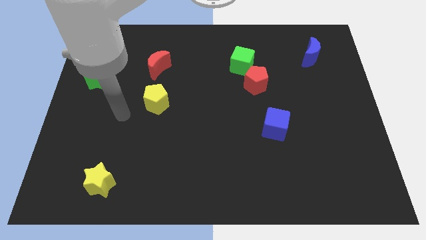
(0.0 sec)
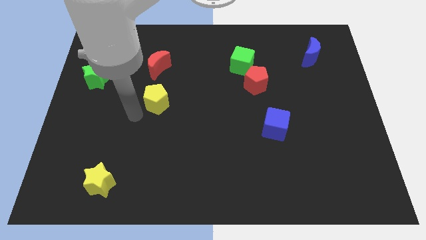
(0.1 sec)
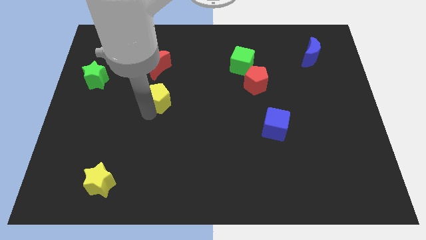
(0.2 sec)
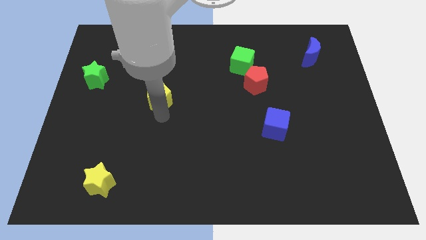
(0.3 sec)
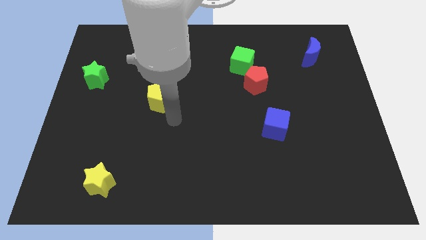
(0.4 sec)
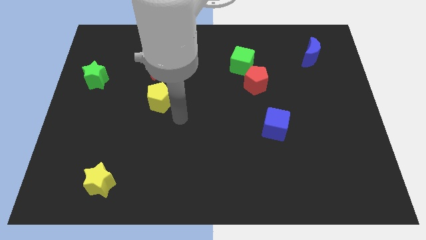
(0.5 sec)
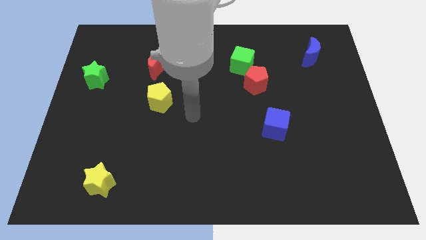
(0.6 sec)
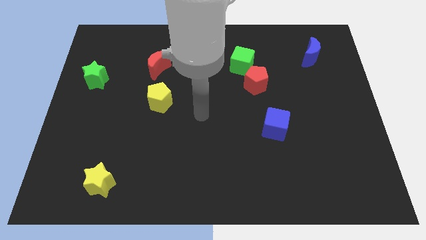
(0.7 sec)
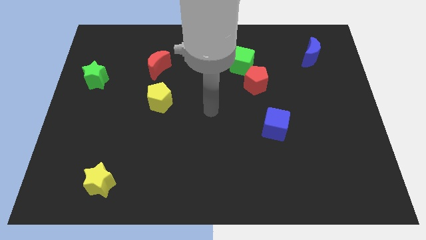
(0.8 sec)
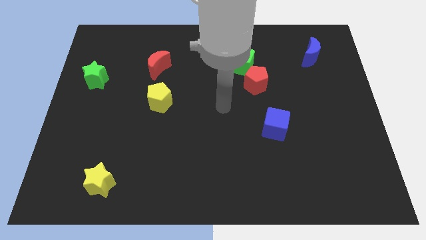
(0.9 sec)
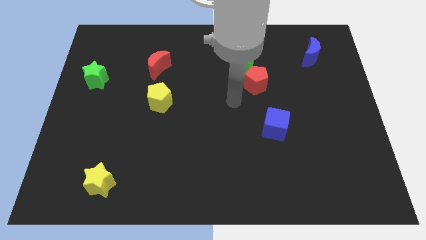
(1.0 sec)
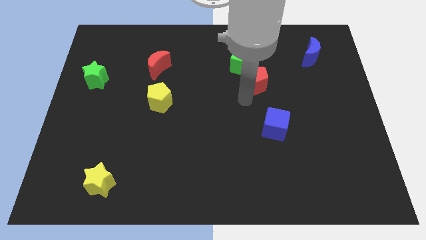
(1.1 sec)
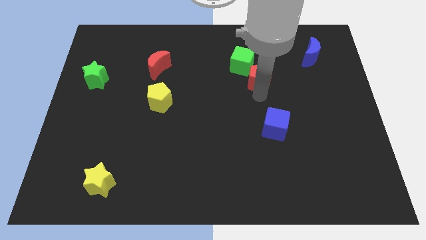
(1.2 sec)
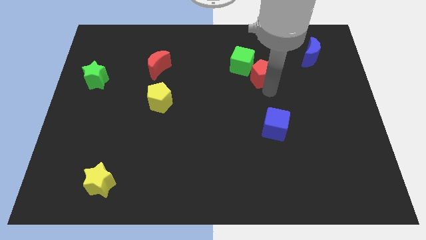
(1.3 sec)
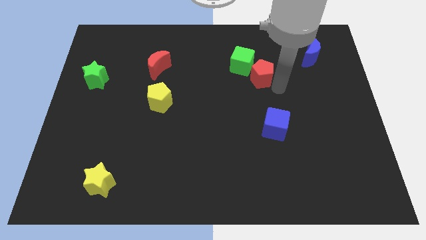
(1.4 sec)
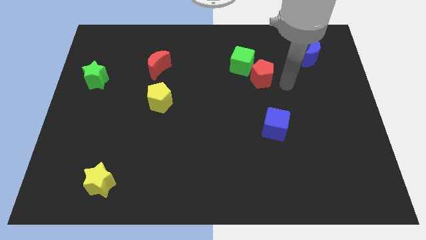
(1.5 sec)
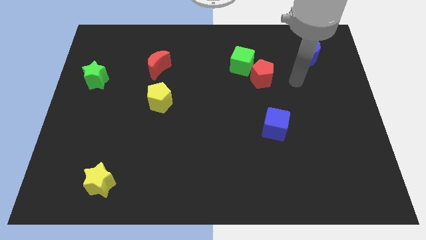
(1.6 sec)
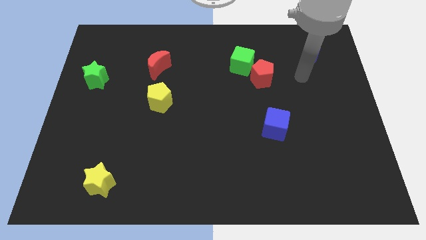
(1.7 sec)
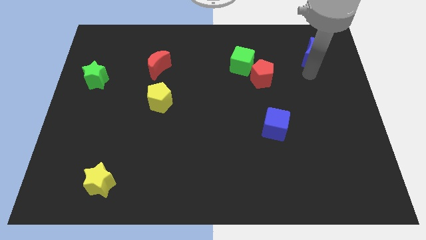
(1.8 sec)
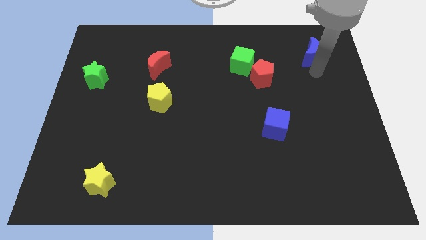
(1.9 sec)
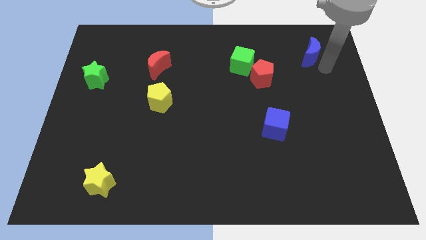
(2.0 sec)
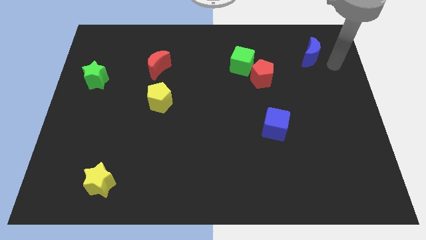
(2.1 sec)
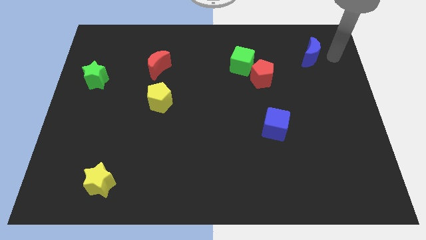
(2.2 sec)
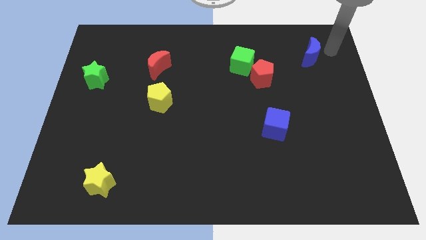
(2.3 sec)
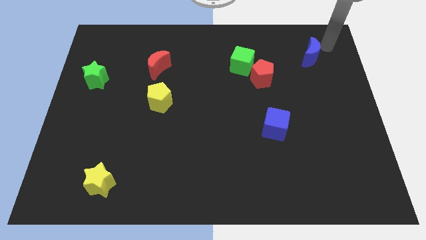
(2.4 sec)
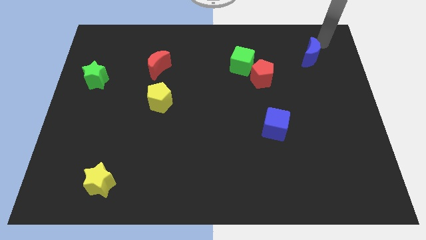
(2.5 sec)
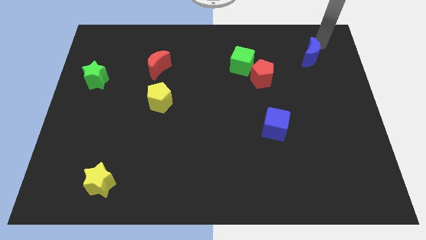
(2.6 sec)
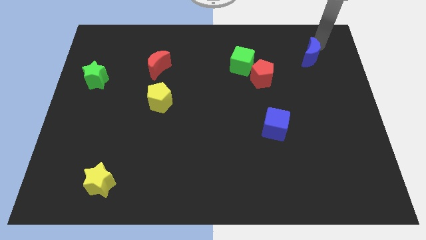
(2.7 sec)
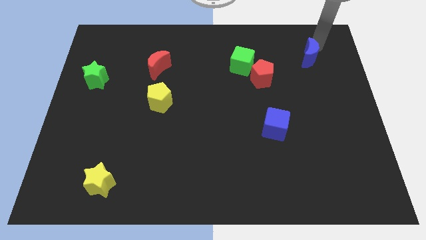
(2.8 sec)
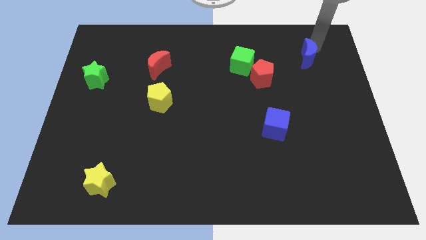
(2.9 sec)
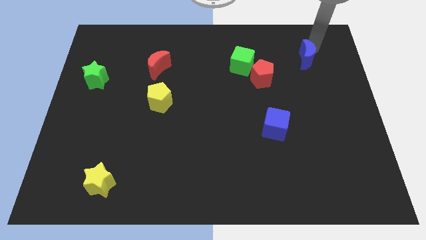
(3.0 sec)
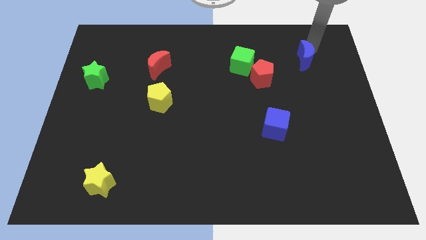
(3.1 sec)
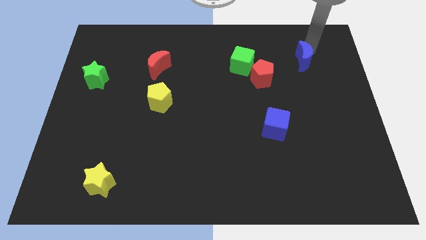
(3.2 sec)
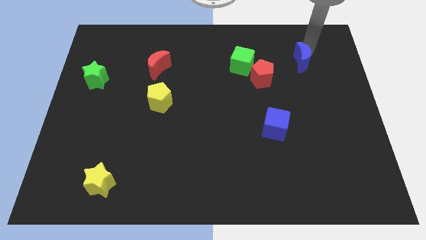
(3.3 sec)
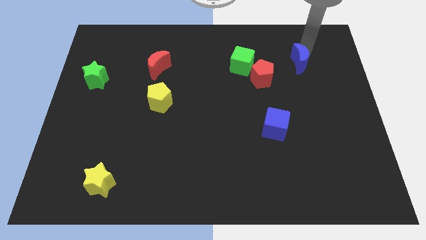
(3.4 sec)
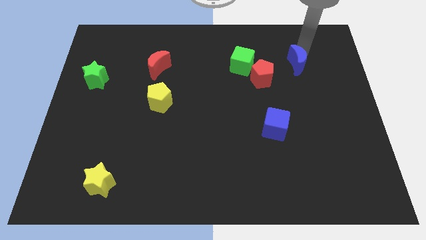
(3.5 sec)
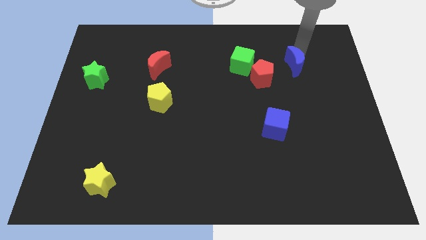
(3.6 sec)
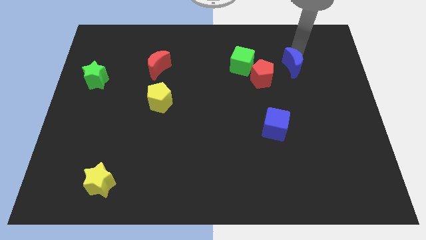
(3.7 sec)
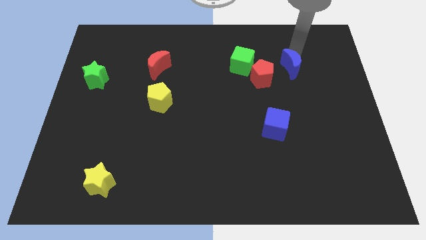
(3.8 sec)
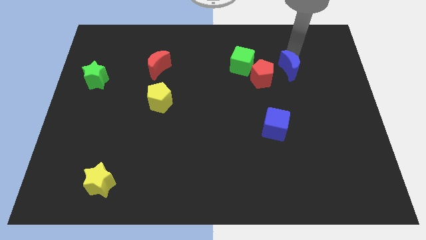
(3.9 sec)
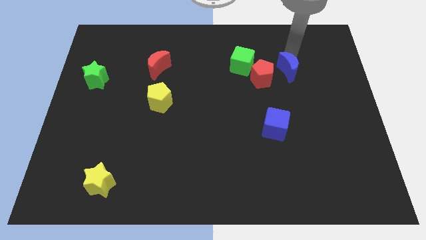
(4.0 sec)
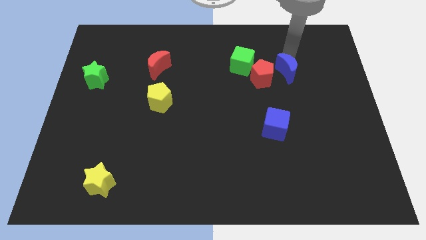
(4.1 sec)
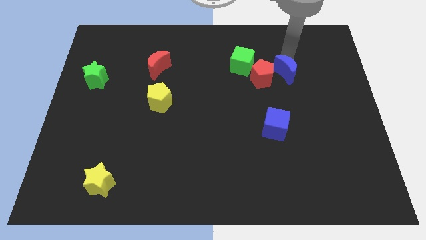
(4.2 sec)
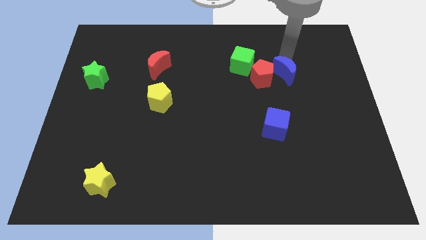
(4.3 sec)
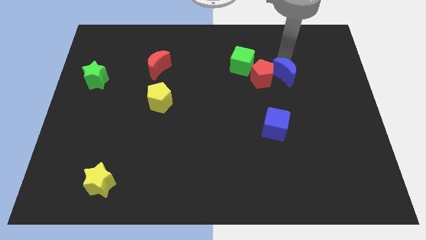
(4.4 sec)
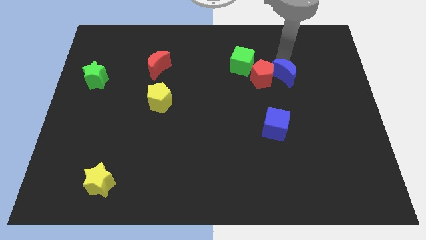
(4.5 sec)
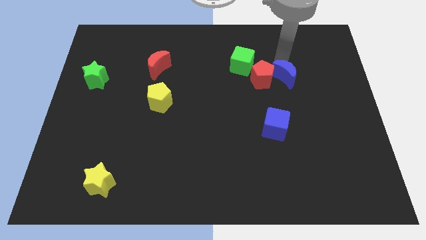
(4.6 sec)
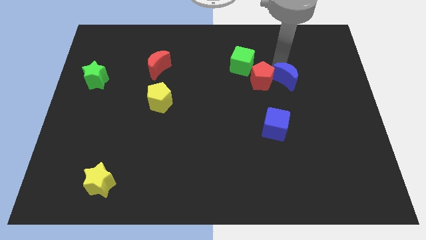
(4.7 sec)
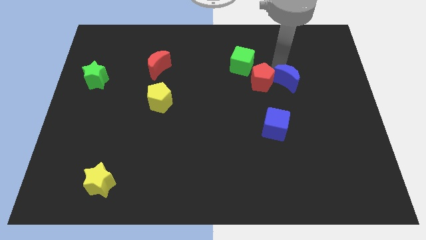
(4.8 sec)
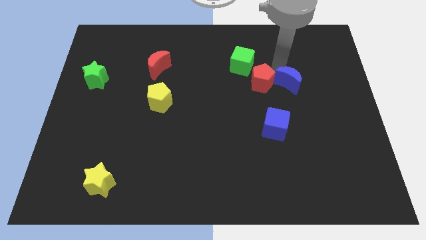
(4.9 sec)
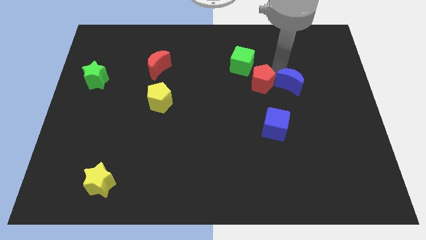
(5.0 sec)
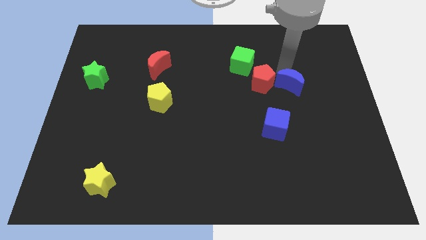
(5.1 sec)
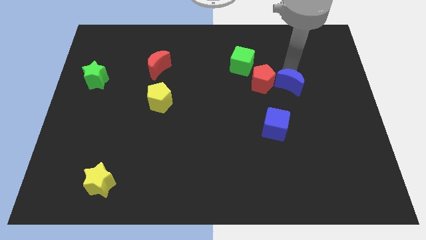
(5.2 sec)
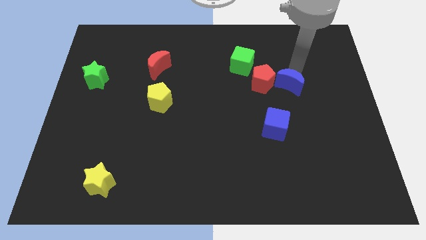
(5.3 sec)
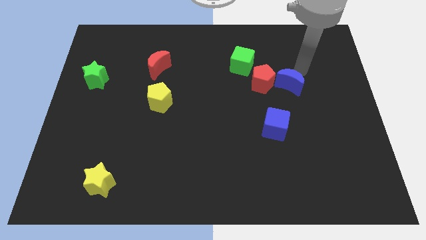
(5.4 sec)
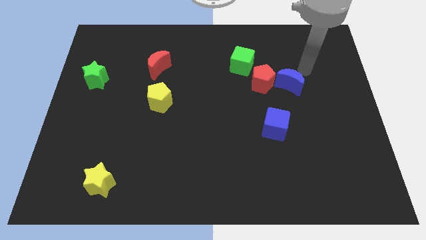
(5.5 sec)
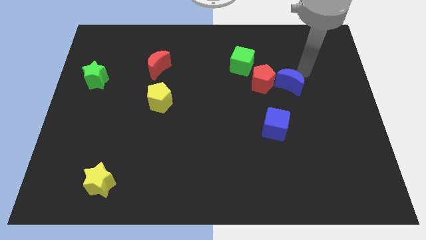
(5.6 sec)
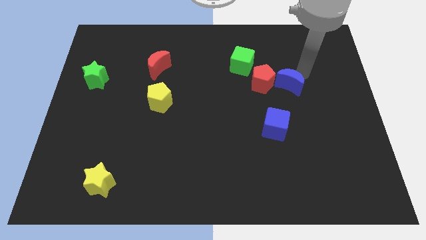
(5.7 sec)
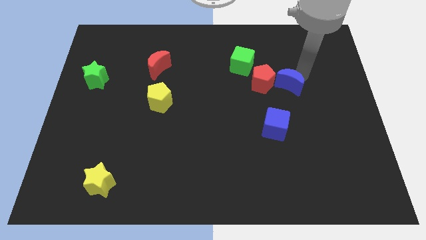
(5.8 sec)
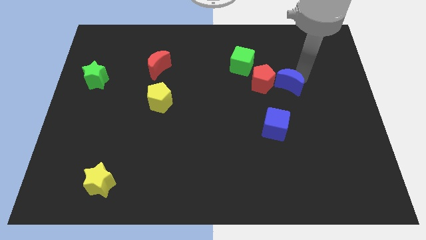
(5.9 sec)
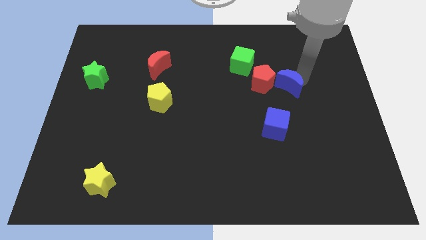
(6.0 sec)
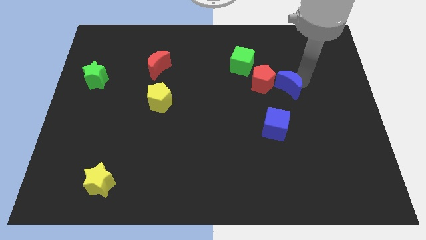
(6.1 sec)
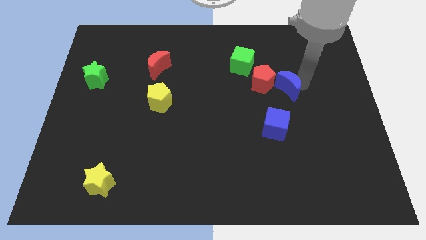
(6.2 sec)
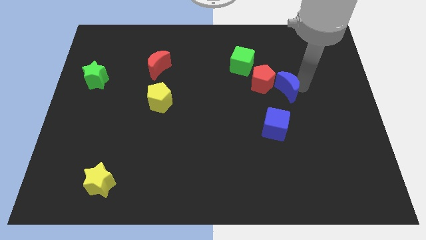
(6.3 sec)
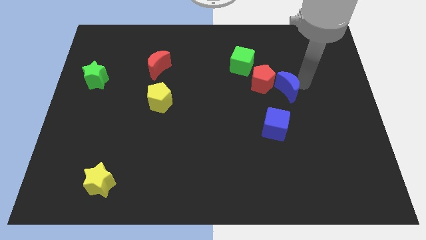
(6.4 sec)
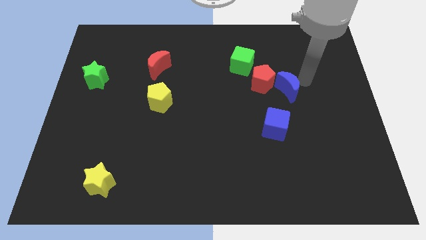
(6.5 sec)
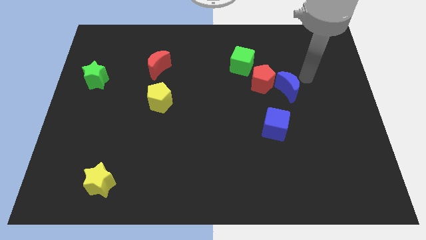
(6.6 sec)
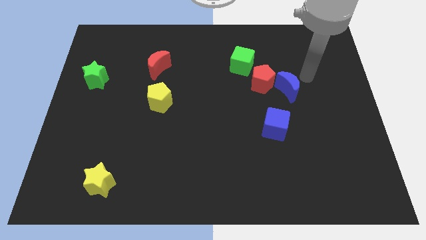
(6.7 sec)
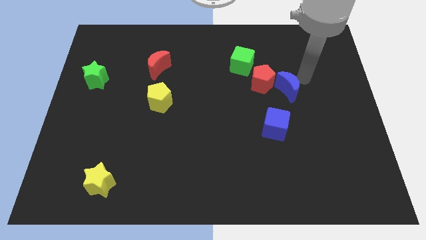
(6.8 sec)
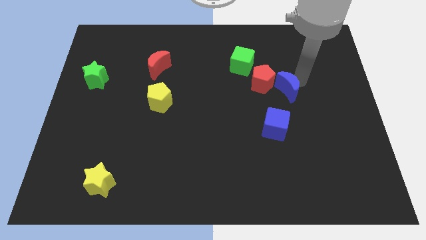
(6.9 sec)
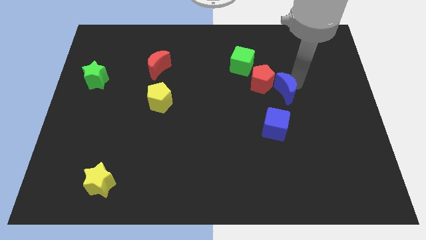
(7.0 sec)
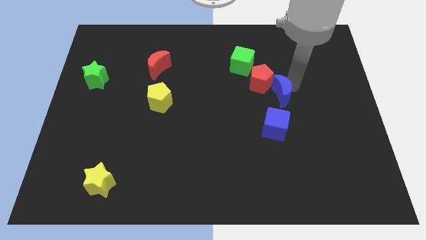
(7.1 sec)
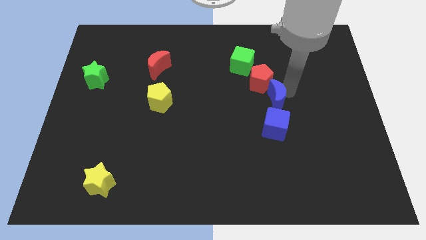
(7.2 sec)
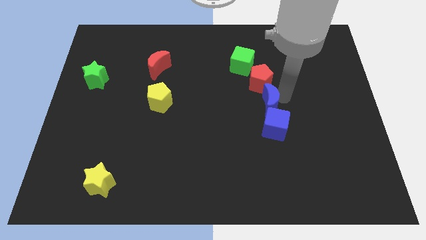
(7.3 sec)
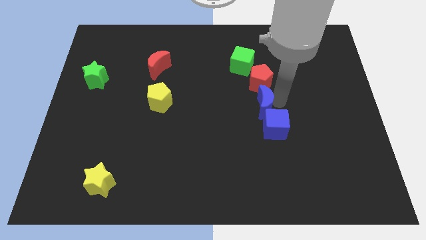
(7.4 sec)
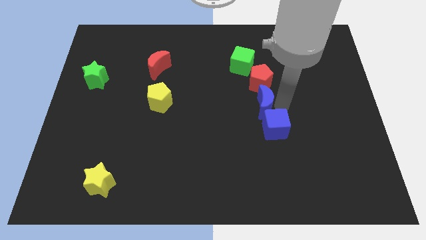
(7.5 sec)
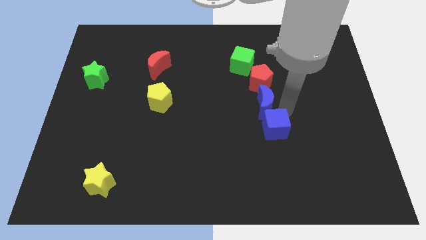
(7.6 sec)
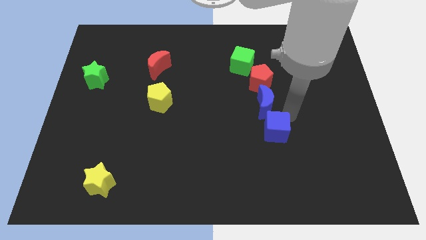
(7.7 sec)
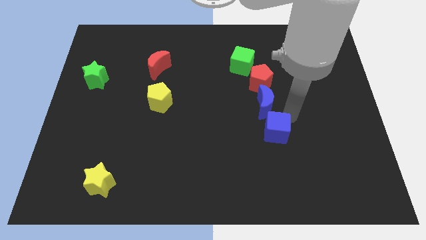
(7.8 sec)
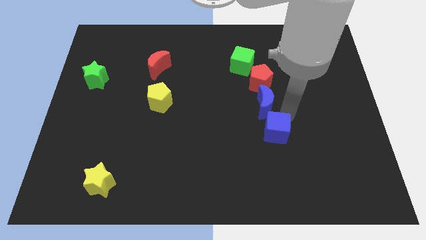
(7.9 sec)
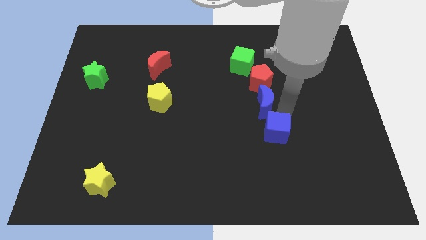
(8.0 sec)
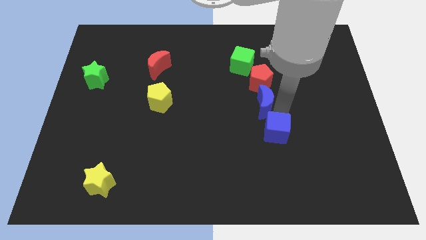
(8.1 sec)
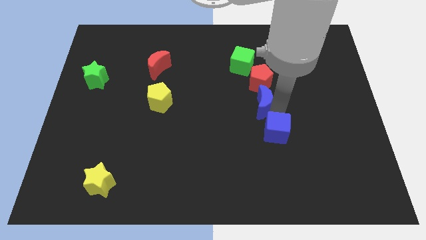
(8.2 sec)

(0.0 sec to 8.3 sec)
push the blue moon to the bottom side of the green cube
